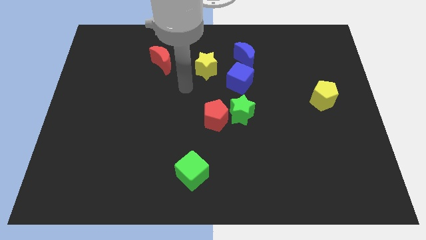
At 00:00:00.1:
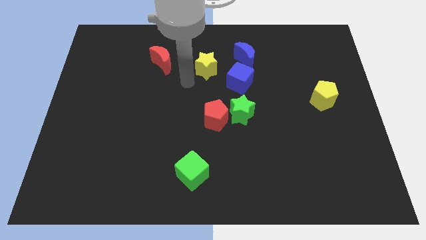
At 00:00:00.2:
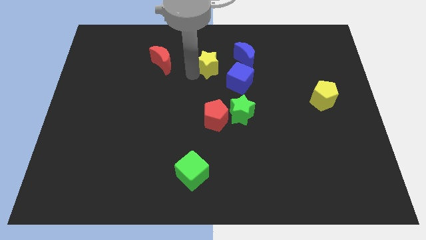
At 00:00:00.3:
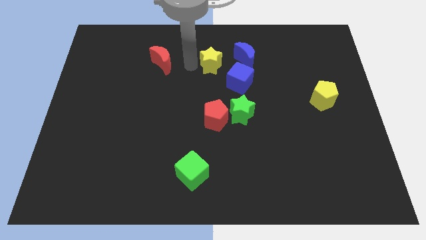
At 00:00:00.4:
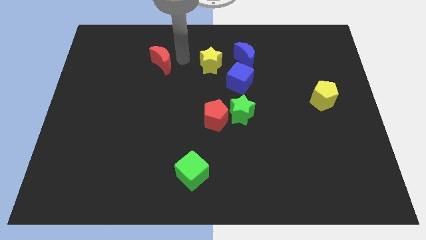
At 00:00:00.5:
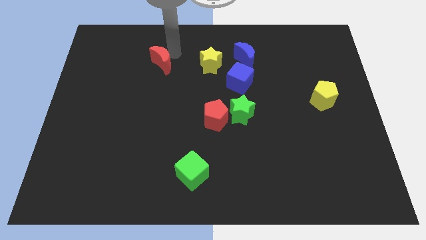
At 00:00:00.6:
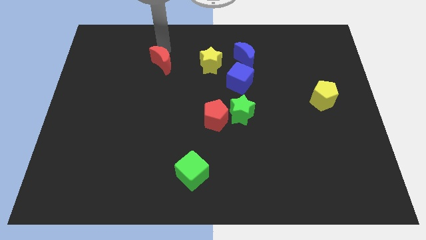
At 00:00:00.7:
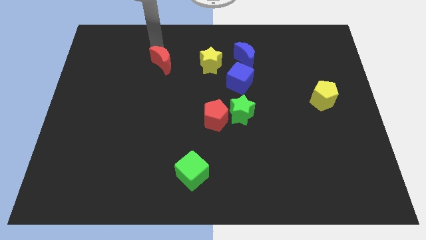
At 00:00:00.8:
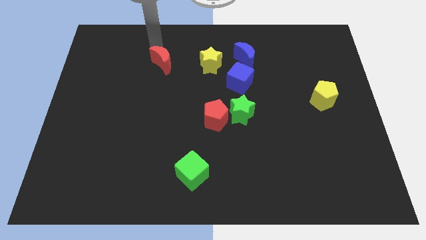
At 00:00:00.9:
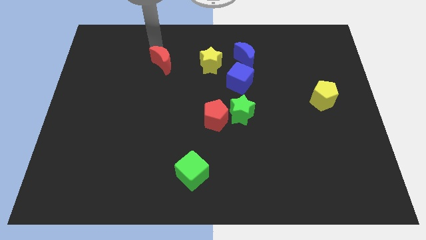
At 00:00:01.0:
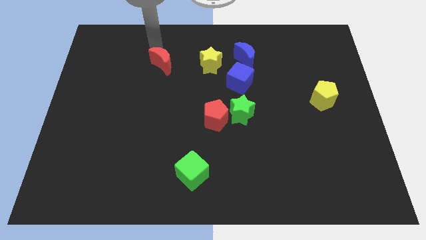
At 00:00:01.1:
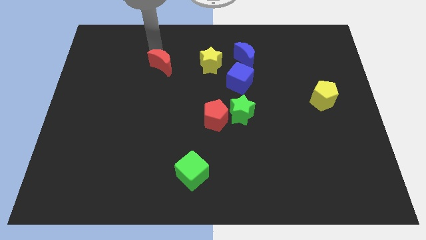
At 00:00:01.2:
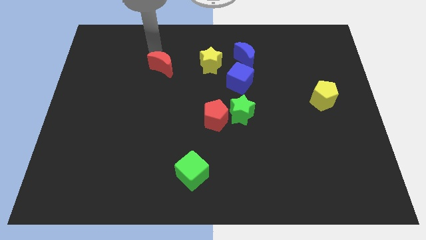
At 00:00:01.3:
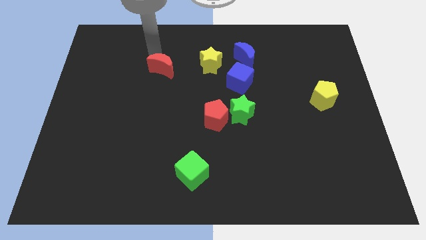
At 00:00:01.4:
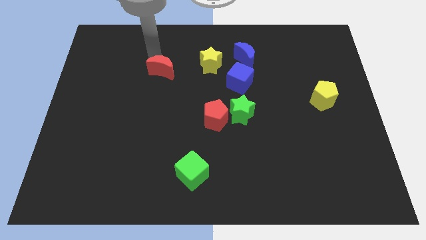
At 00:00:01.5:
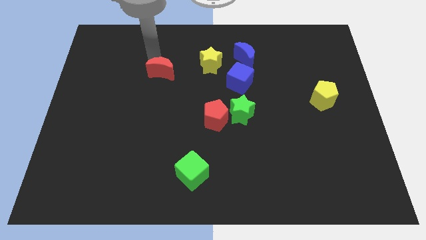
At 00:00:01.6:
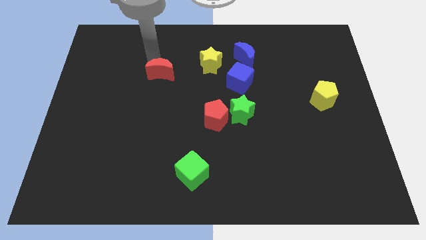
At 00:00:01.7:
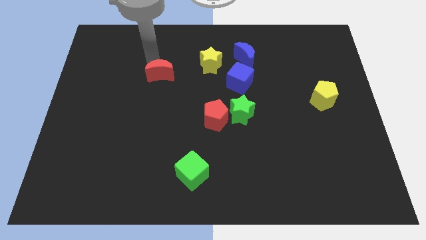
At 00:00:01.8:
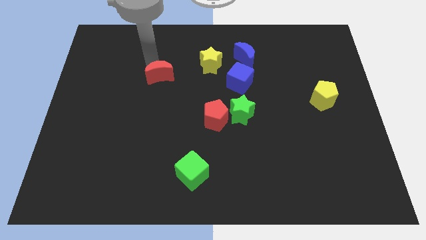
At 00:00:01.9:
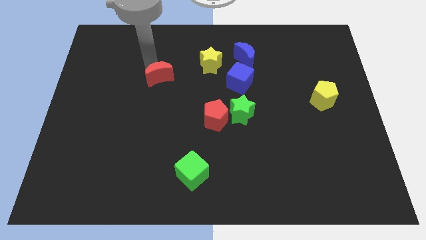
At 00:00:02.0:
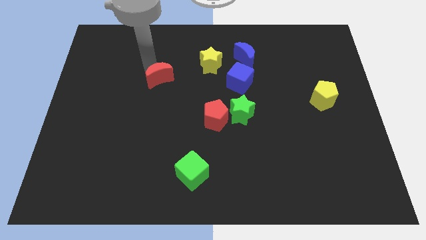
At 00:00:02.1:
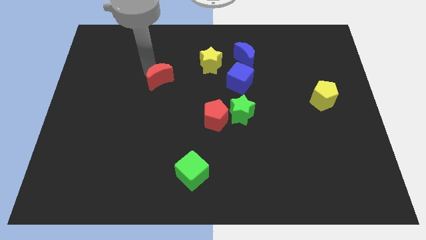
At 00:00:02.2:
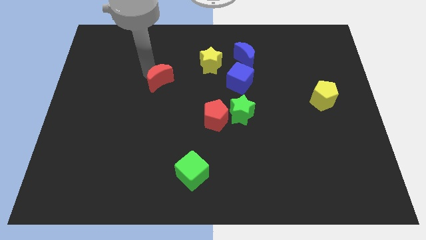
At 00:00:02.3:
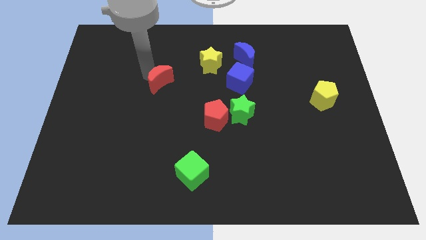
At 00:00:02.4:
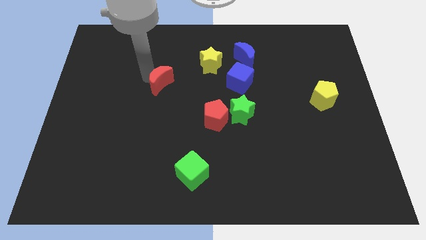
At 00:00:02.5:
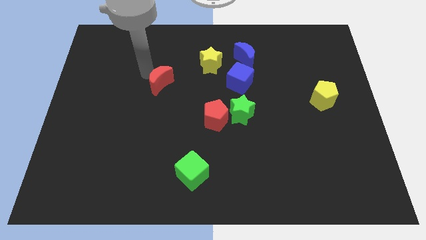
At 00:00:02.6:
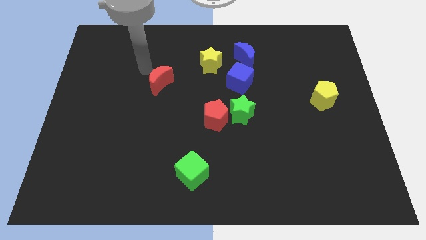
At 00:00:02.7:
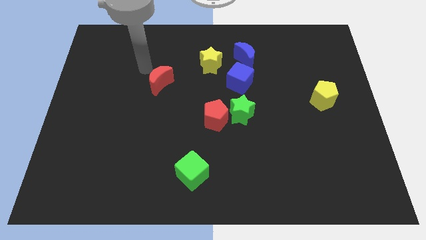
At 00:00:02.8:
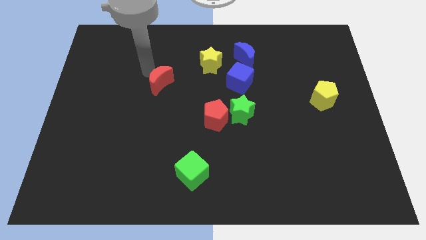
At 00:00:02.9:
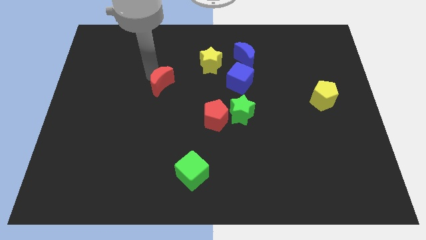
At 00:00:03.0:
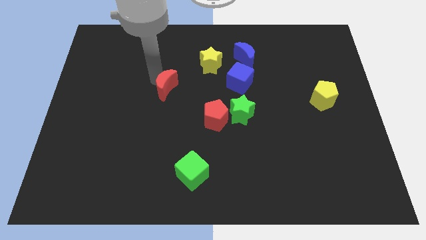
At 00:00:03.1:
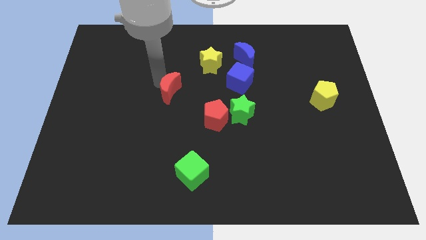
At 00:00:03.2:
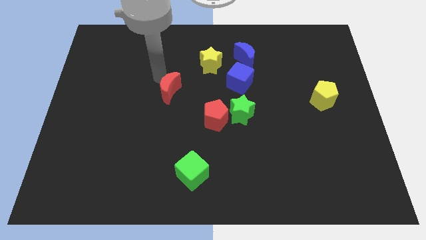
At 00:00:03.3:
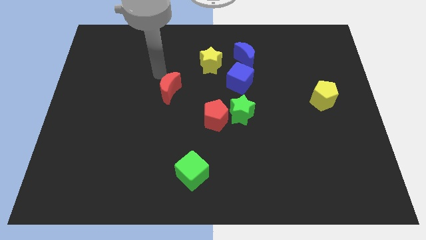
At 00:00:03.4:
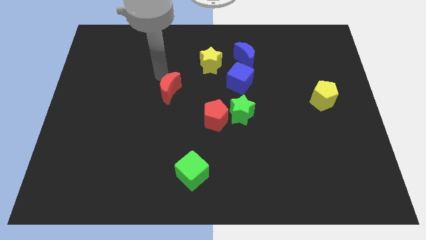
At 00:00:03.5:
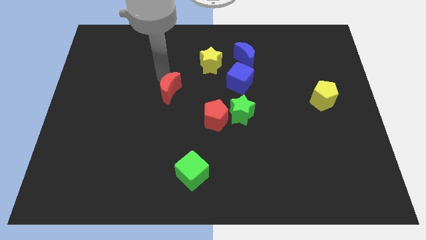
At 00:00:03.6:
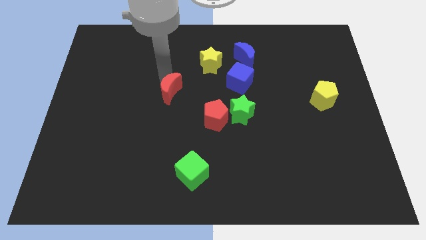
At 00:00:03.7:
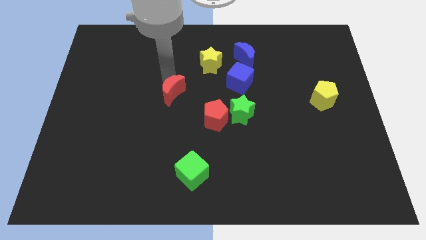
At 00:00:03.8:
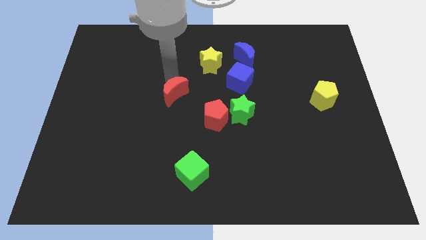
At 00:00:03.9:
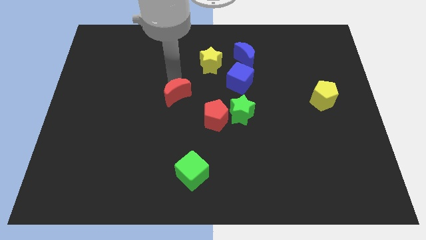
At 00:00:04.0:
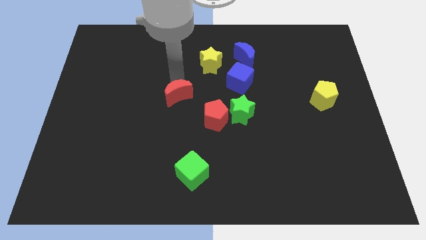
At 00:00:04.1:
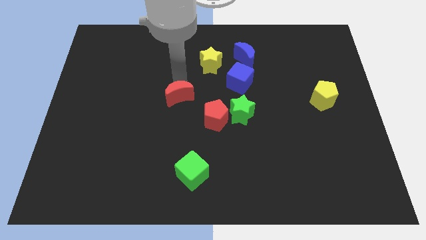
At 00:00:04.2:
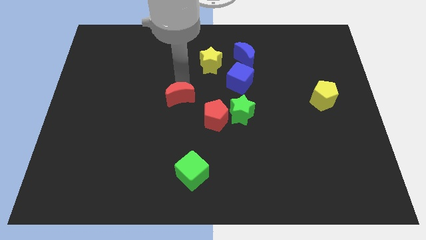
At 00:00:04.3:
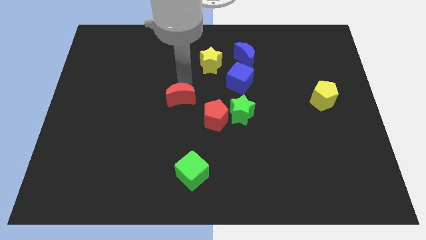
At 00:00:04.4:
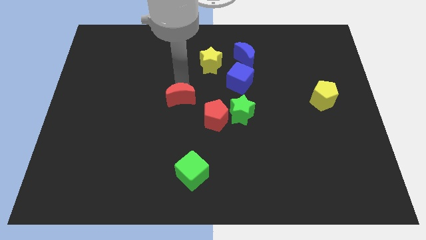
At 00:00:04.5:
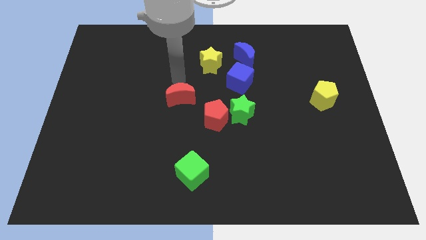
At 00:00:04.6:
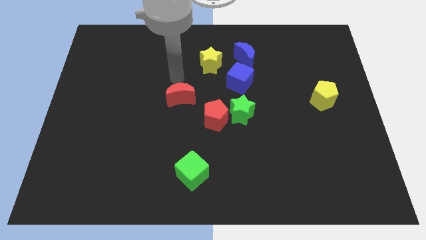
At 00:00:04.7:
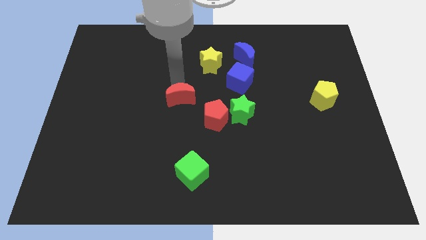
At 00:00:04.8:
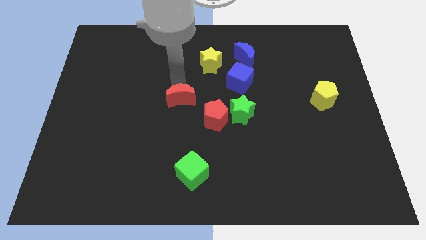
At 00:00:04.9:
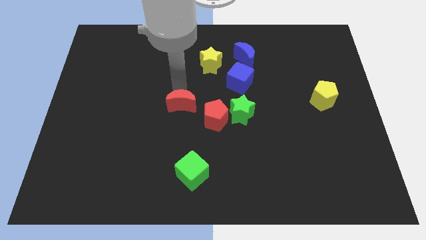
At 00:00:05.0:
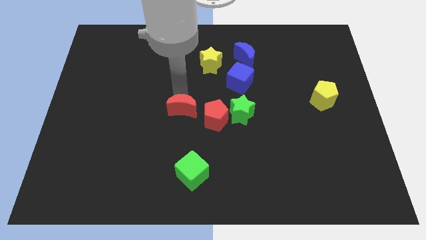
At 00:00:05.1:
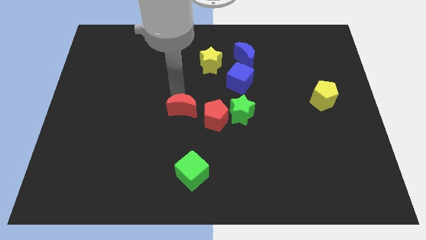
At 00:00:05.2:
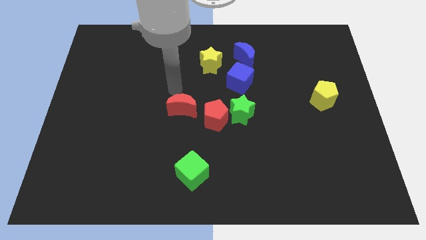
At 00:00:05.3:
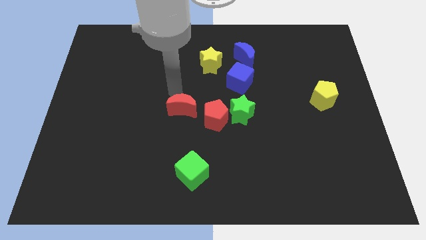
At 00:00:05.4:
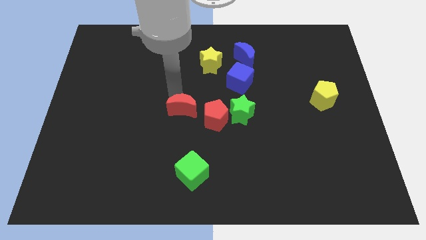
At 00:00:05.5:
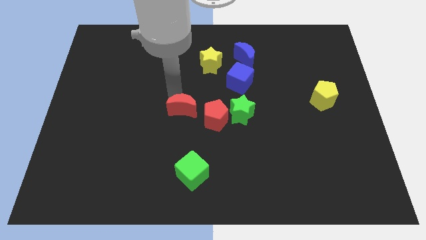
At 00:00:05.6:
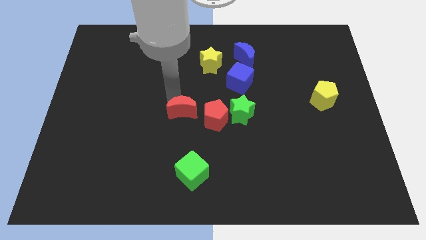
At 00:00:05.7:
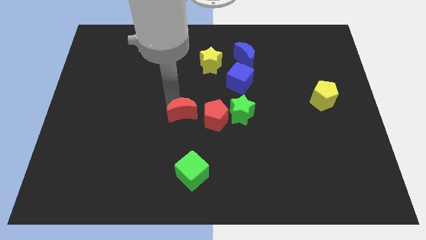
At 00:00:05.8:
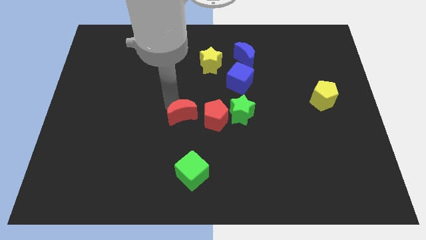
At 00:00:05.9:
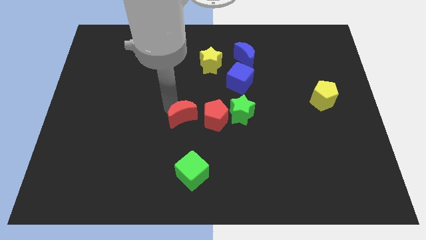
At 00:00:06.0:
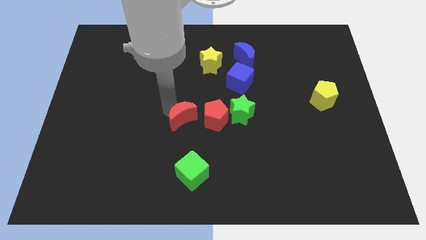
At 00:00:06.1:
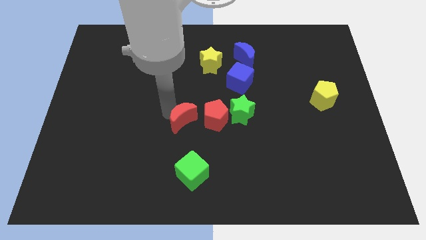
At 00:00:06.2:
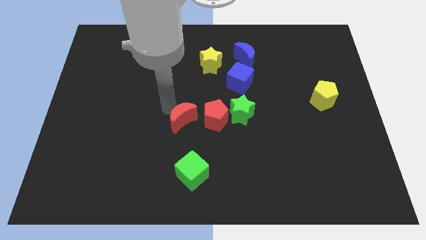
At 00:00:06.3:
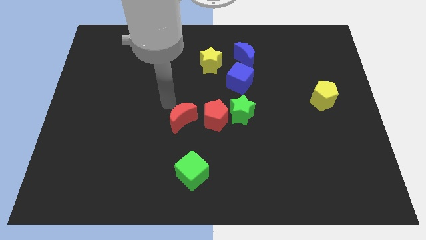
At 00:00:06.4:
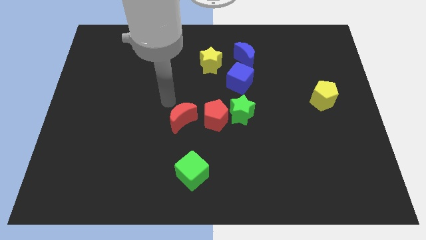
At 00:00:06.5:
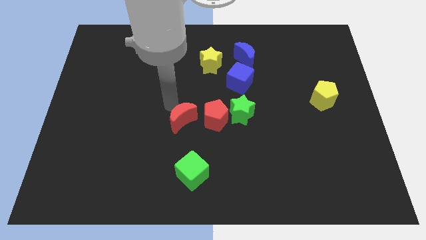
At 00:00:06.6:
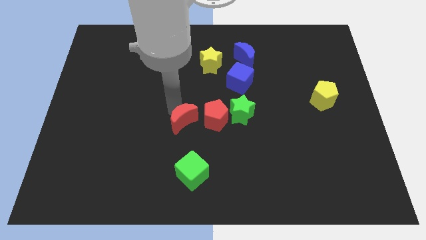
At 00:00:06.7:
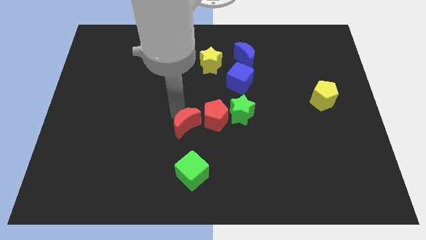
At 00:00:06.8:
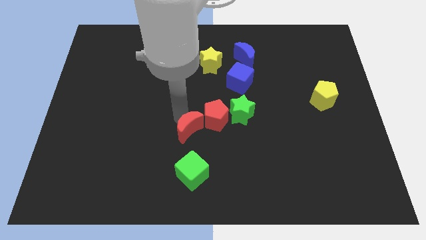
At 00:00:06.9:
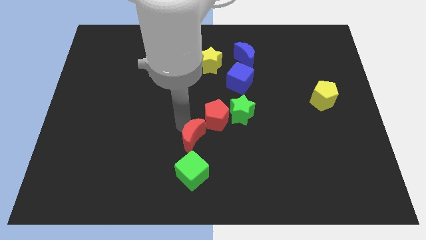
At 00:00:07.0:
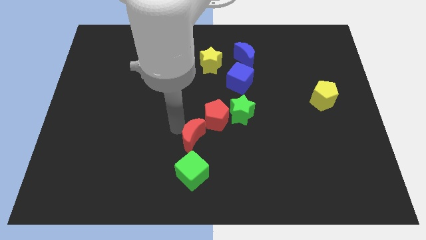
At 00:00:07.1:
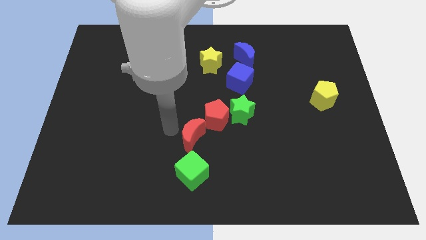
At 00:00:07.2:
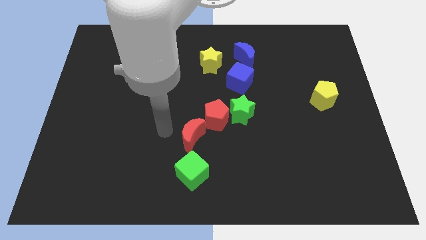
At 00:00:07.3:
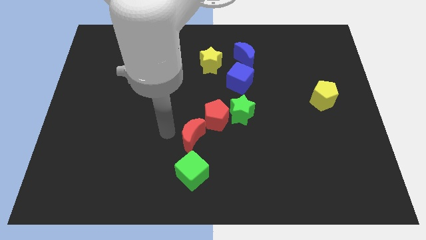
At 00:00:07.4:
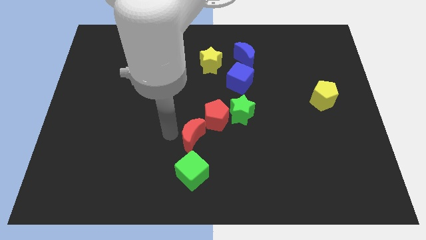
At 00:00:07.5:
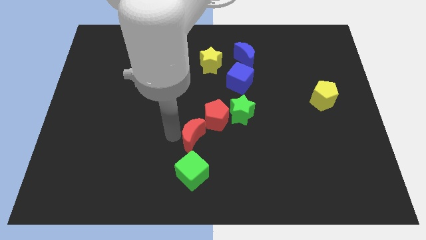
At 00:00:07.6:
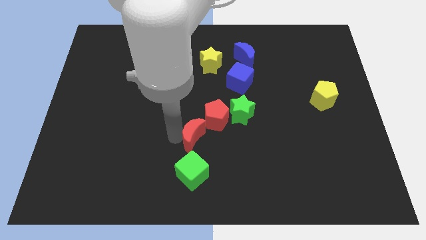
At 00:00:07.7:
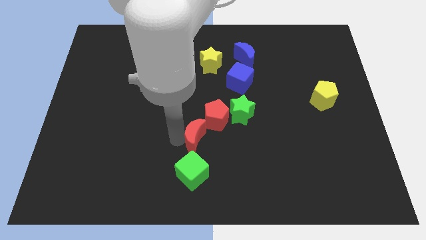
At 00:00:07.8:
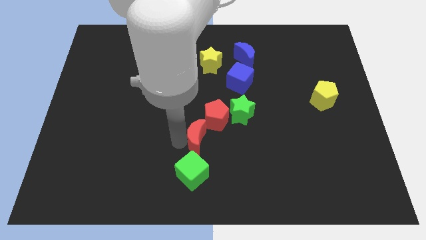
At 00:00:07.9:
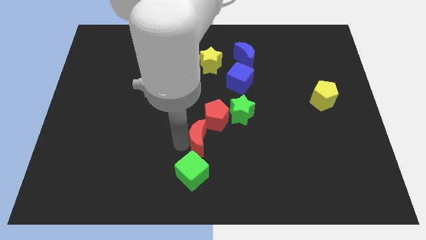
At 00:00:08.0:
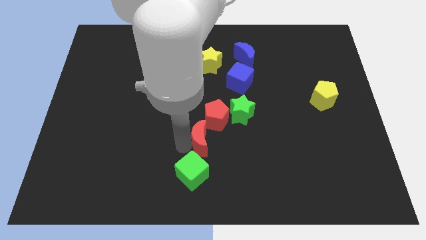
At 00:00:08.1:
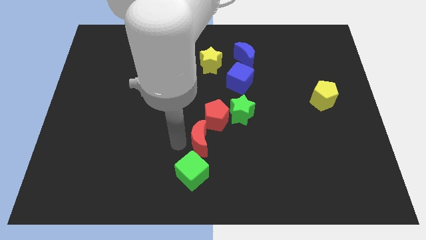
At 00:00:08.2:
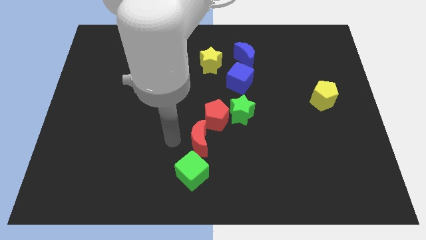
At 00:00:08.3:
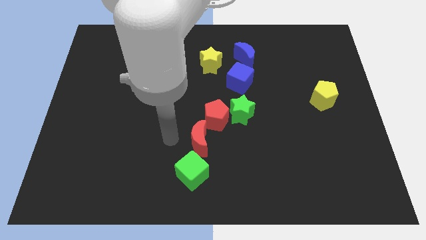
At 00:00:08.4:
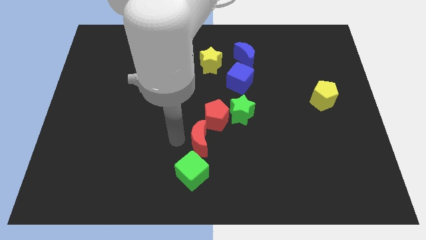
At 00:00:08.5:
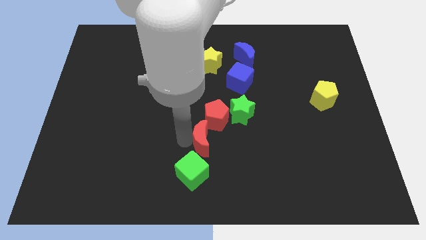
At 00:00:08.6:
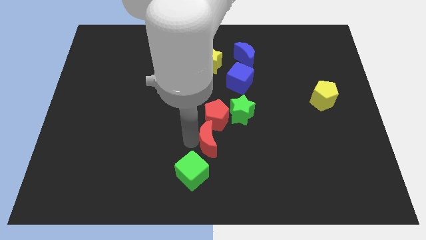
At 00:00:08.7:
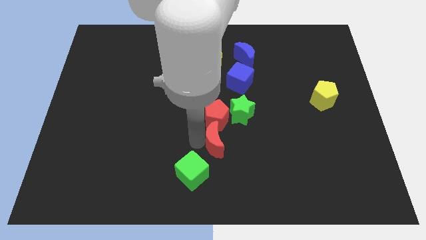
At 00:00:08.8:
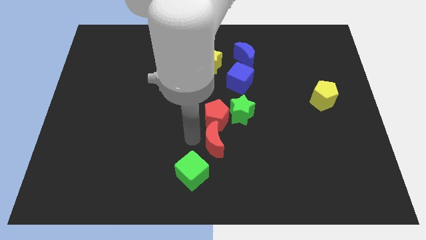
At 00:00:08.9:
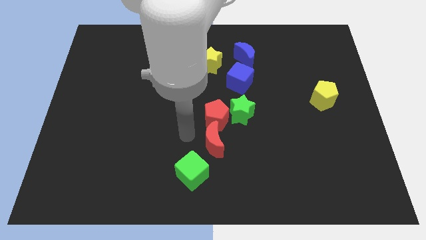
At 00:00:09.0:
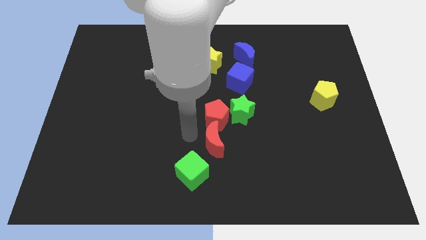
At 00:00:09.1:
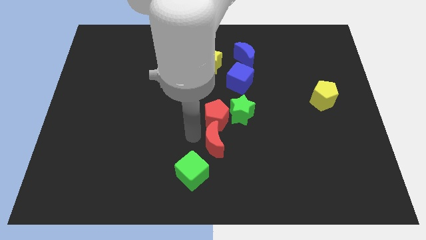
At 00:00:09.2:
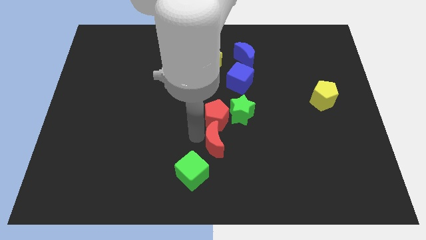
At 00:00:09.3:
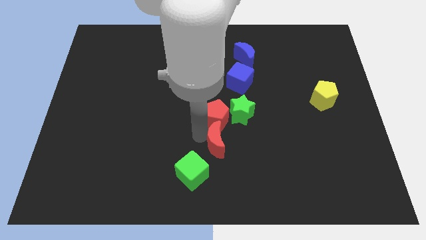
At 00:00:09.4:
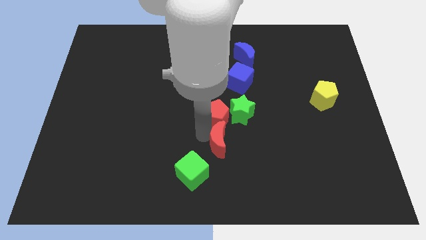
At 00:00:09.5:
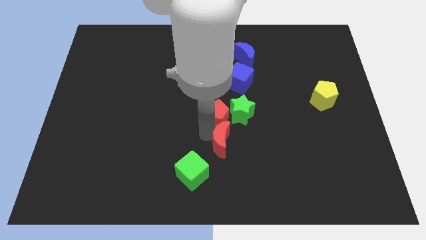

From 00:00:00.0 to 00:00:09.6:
push the red moon to the bottom side of the green star
